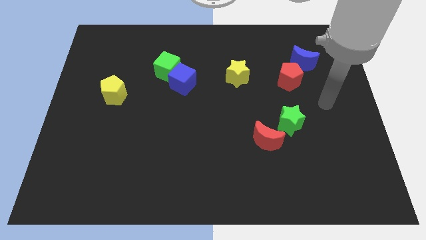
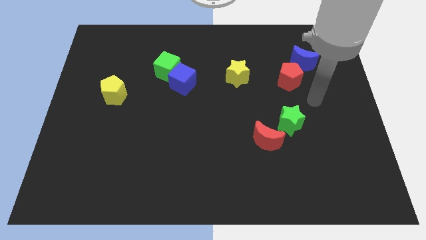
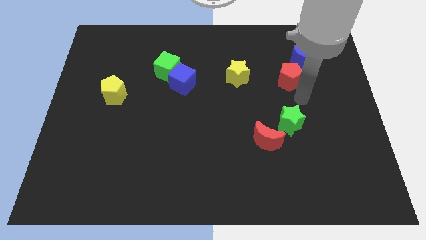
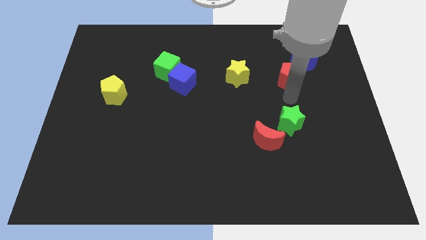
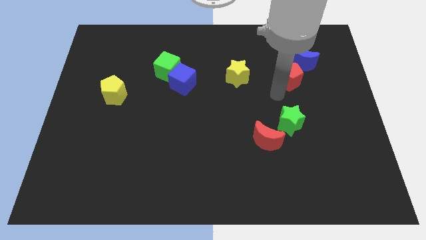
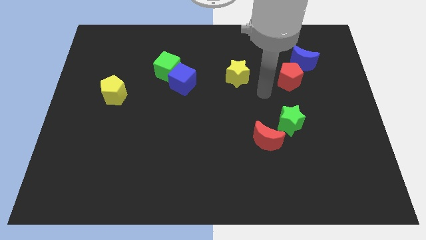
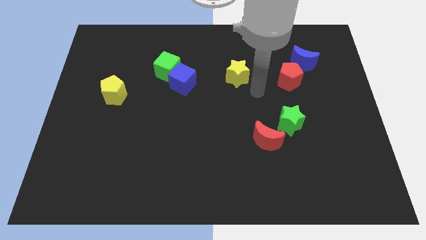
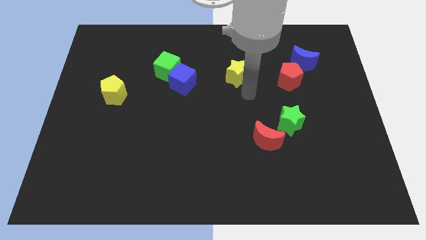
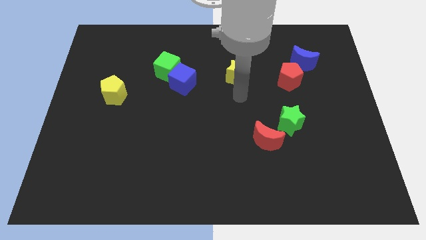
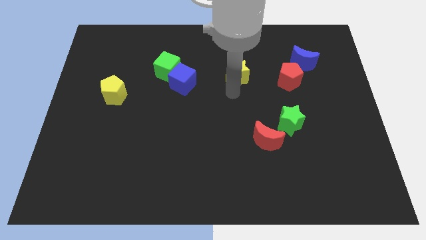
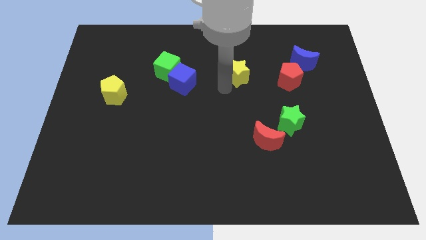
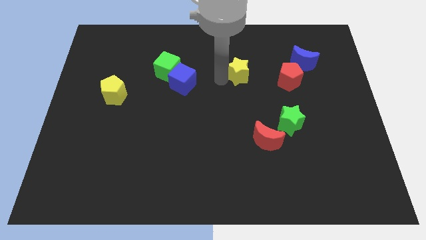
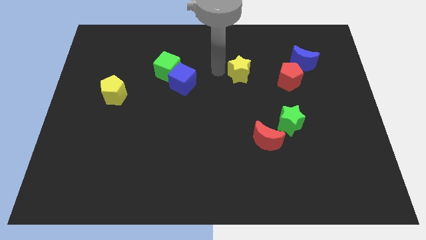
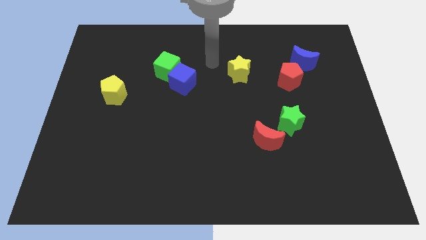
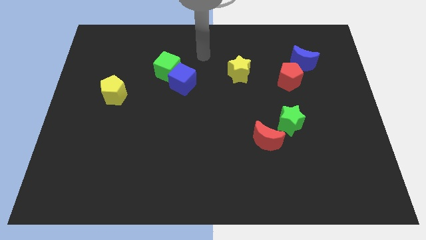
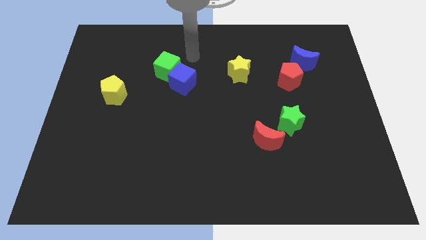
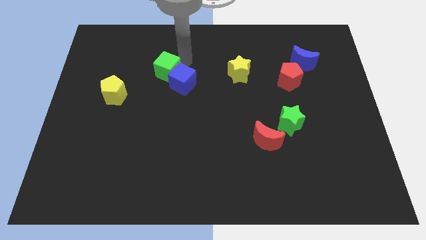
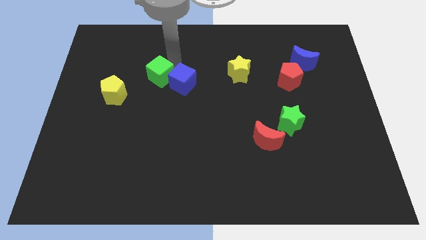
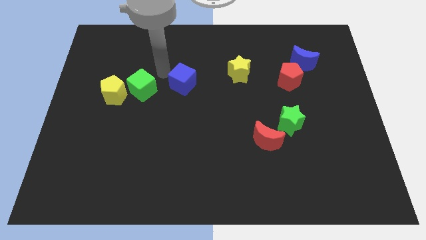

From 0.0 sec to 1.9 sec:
separate the blue cube from the green cube

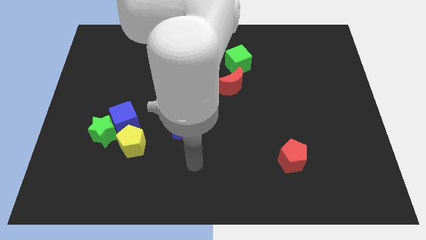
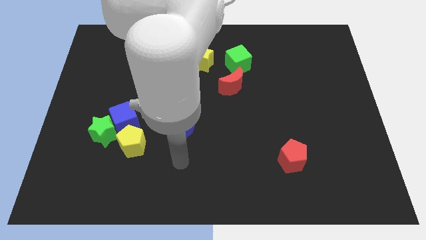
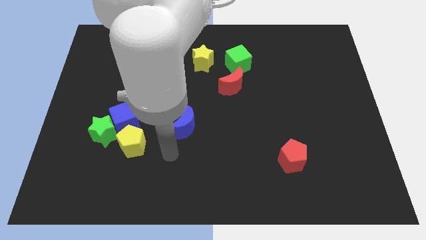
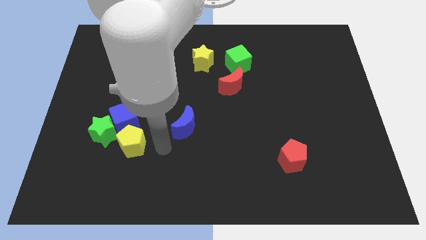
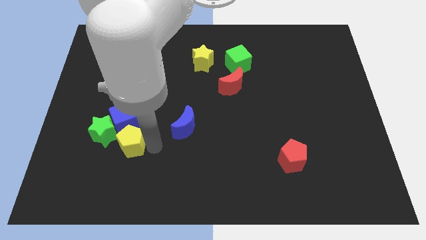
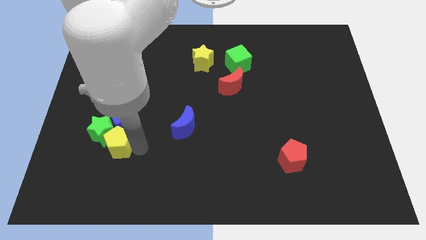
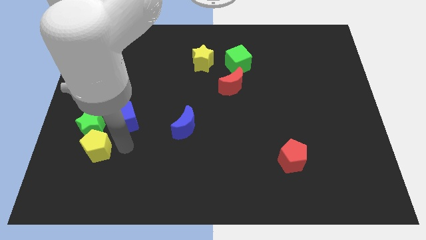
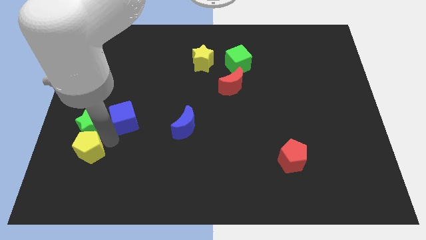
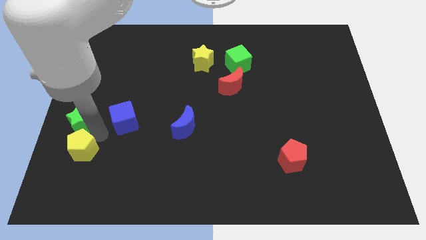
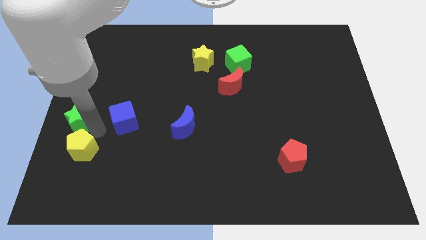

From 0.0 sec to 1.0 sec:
separate the blue cube from the green star and yellow pentagon

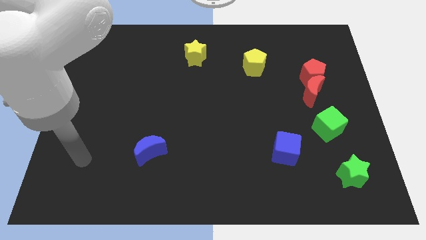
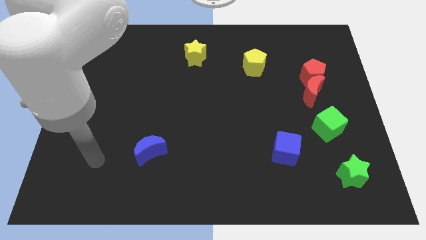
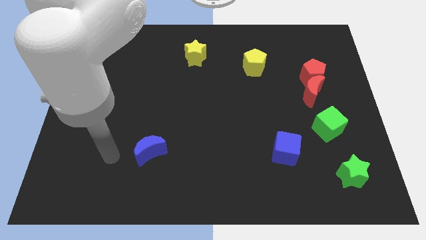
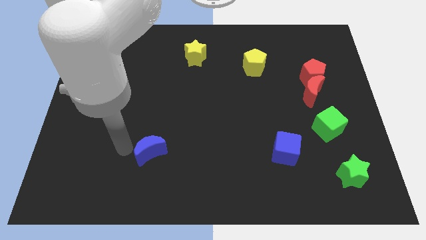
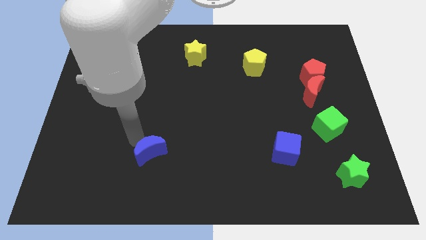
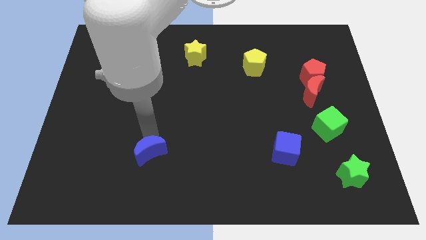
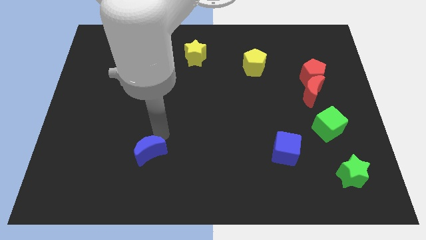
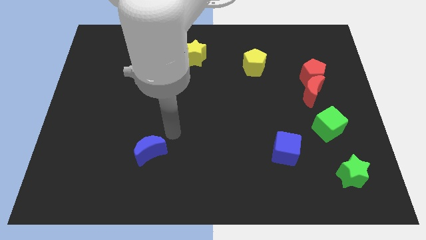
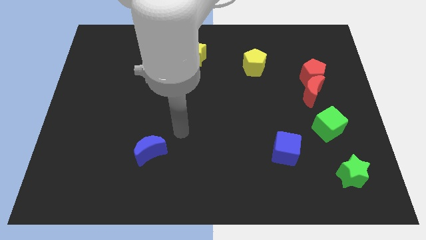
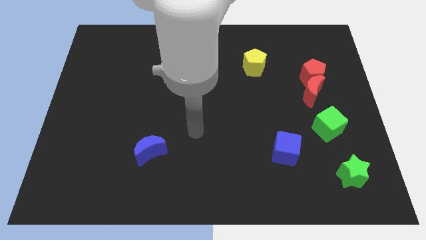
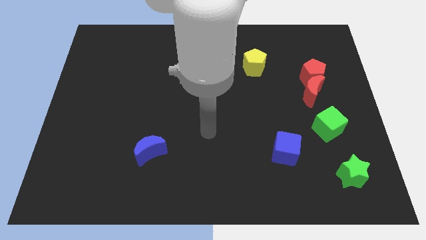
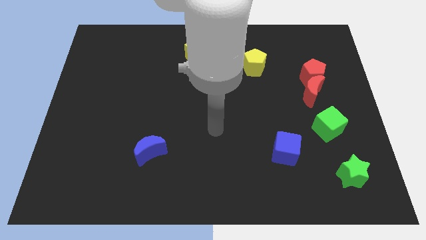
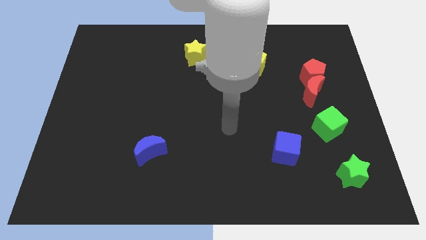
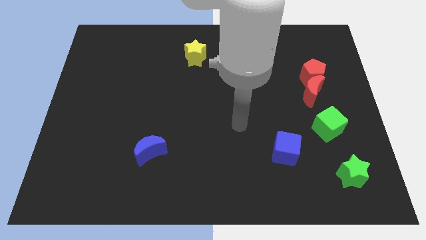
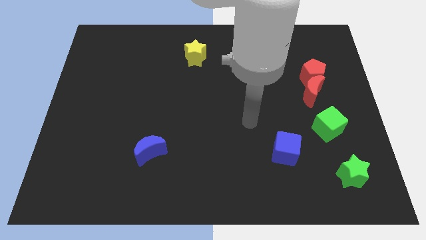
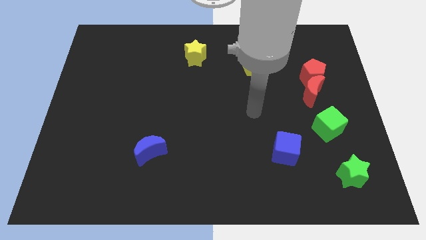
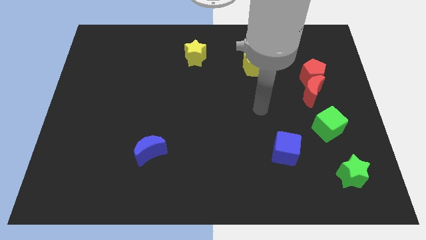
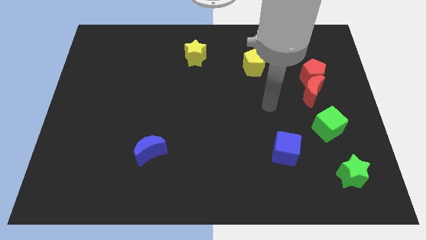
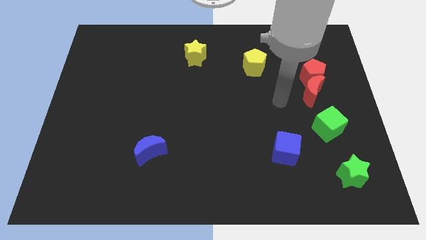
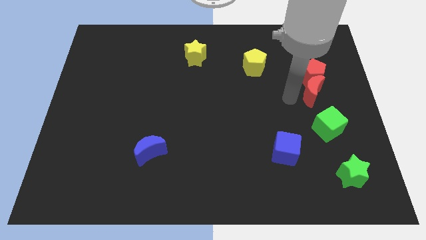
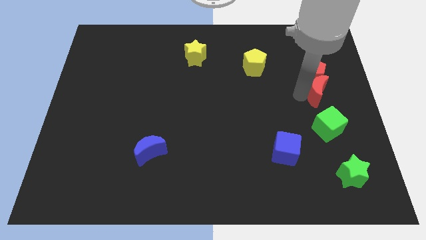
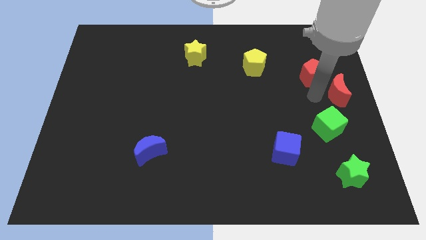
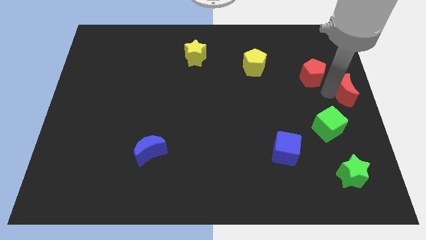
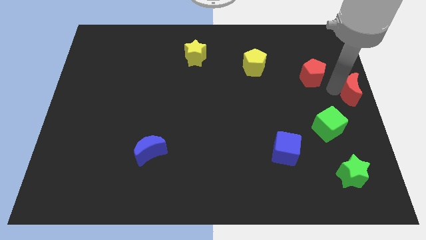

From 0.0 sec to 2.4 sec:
move the red pentagon away from the red moon

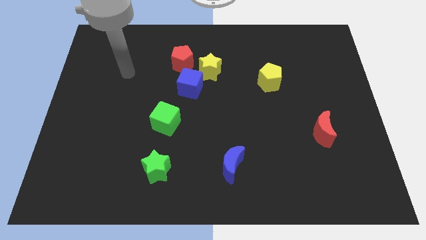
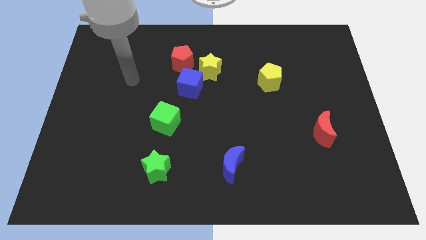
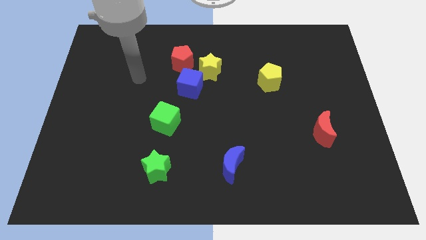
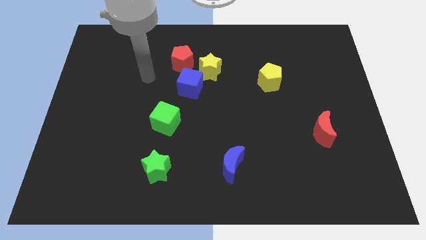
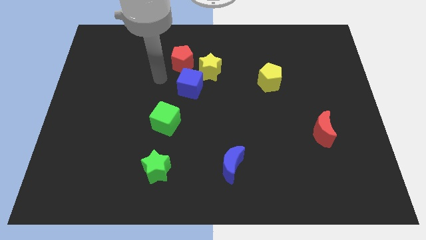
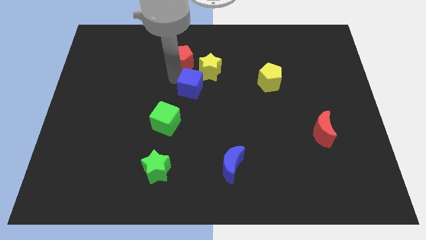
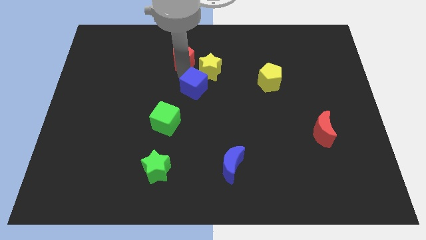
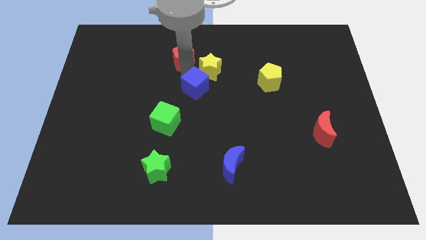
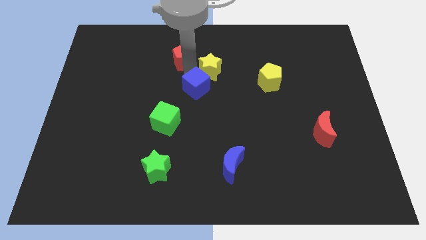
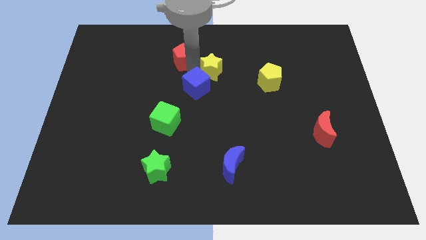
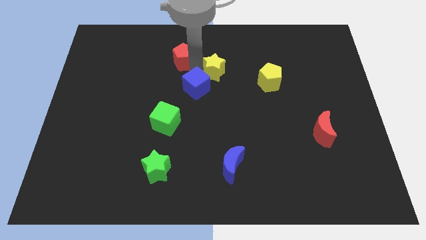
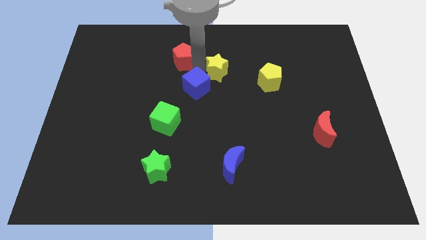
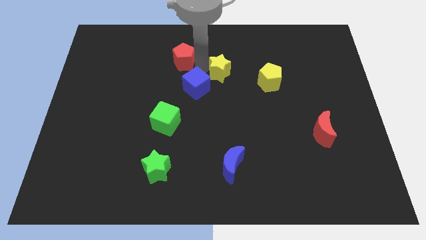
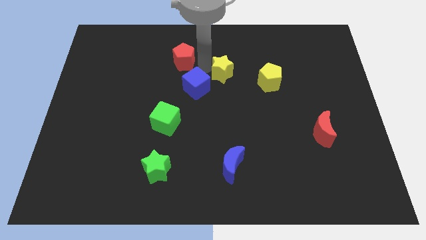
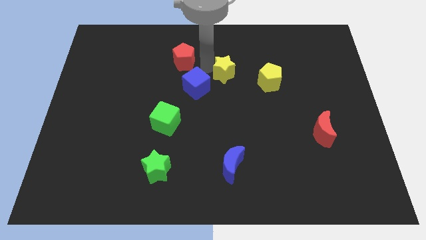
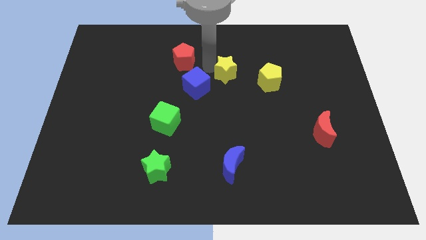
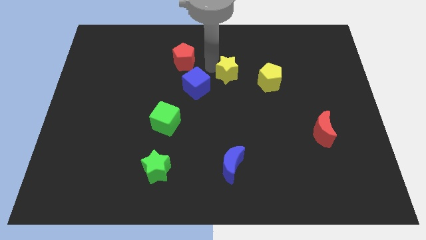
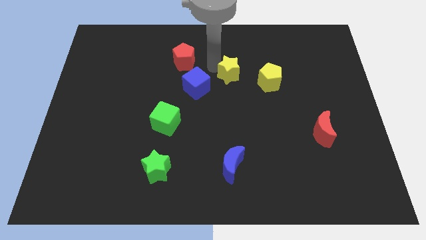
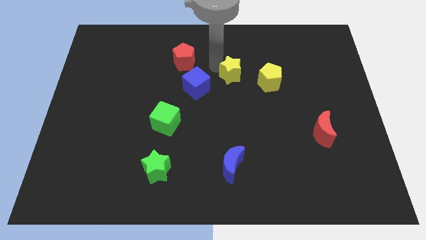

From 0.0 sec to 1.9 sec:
pull the yellow star apart from the blue cube and red pentagon

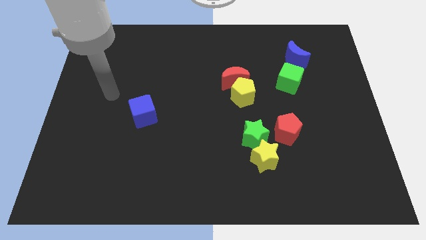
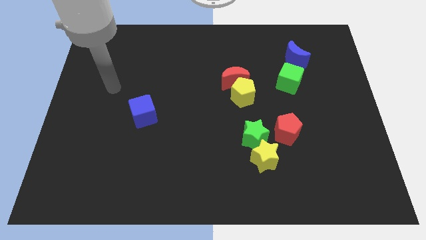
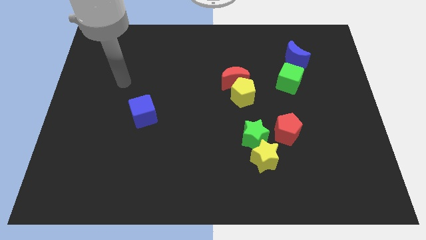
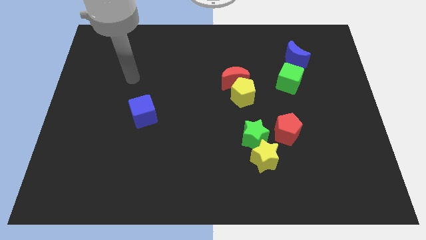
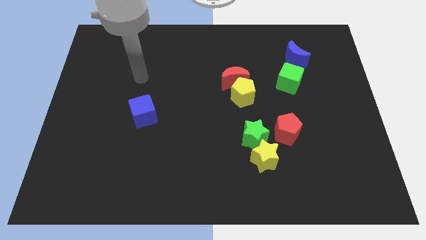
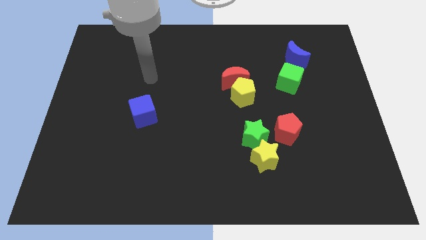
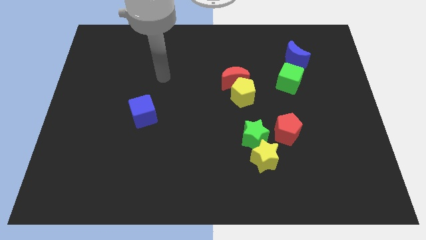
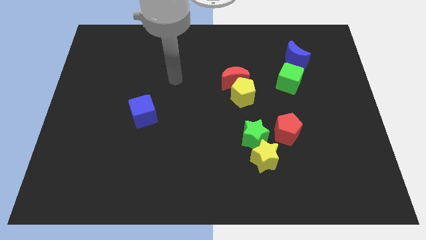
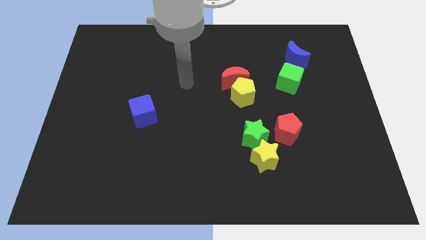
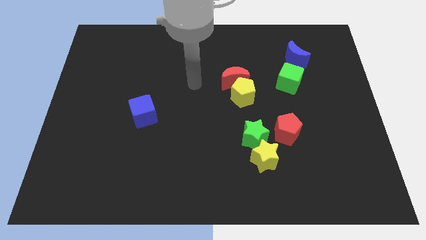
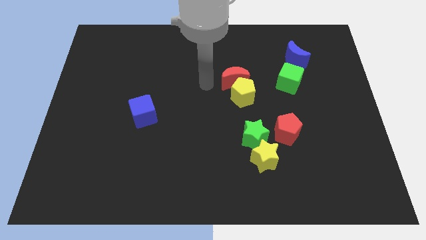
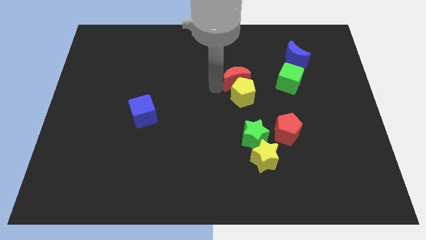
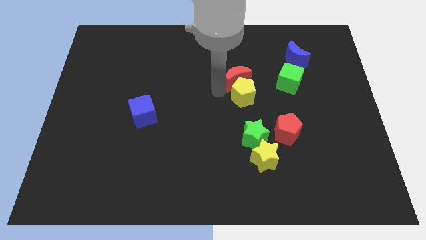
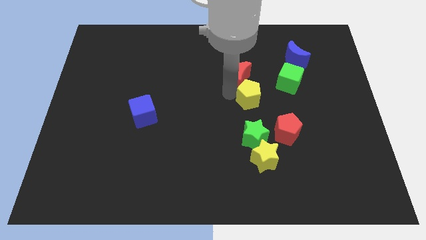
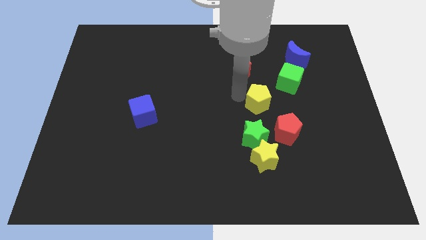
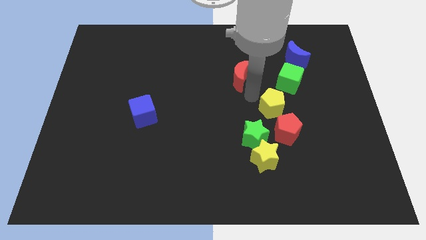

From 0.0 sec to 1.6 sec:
pull the red moon apart from the yellow pentagon

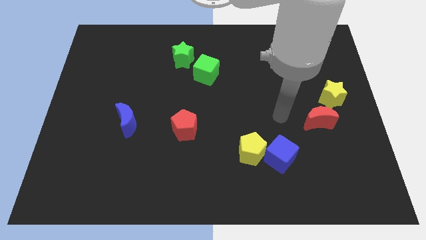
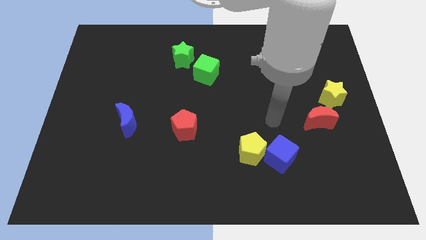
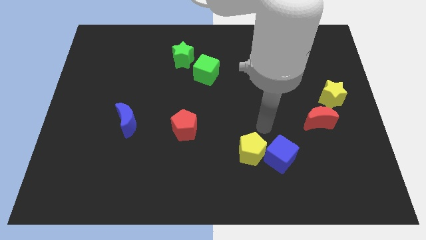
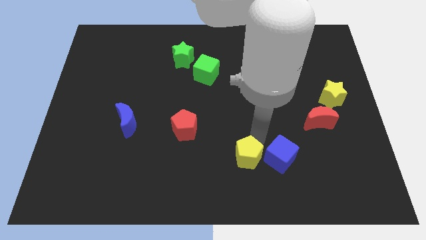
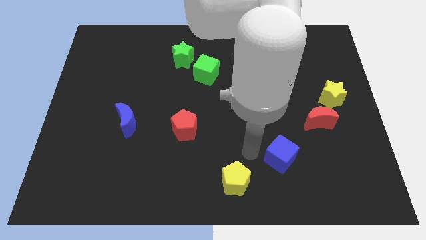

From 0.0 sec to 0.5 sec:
separate the blue cube from the yellow pentagon

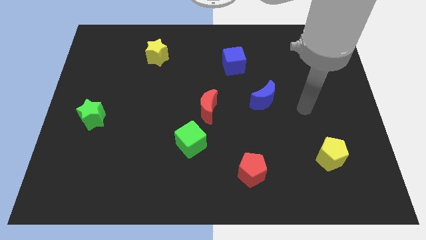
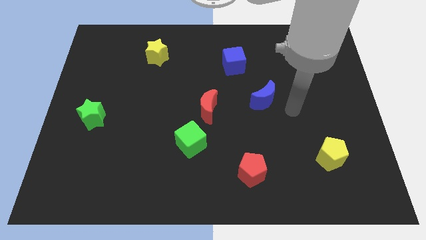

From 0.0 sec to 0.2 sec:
separate the red moon from the green cube
